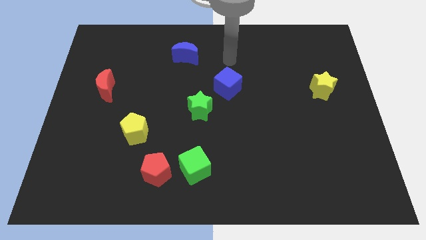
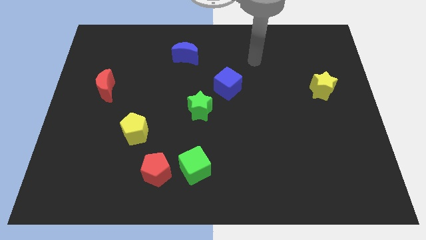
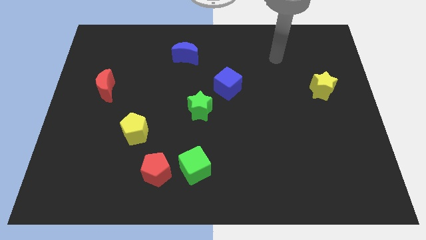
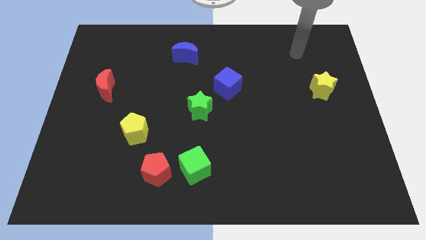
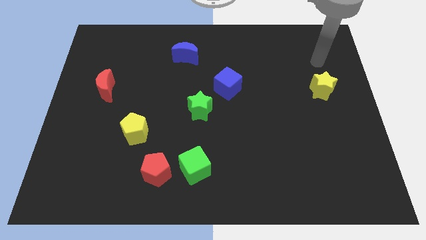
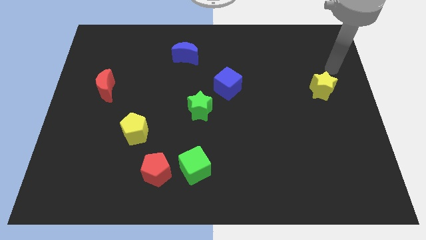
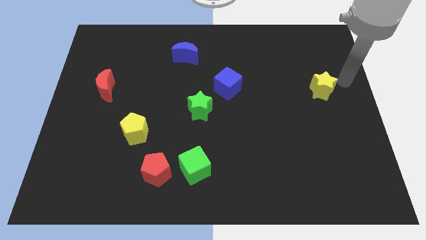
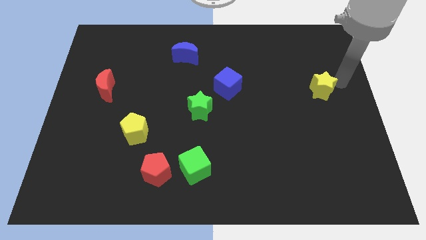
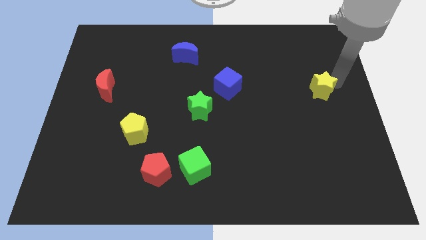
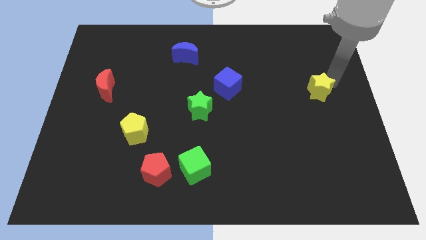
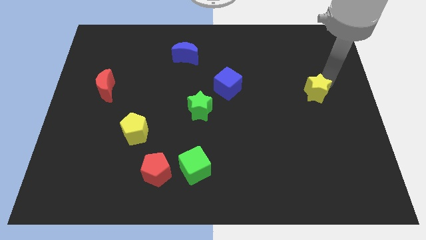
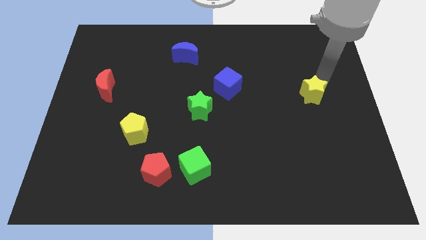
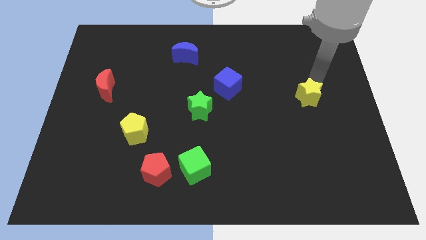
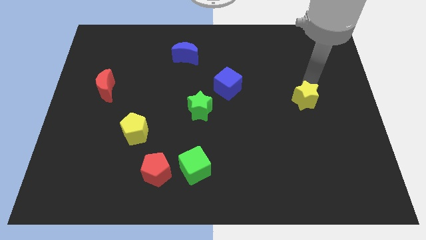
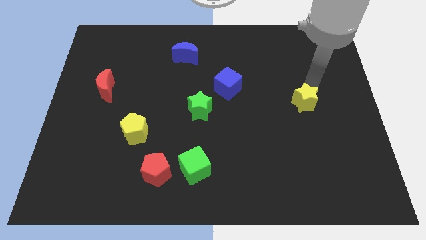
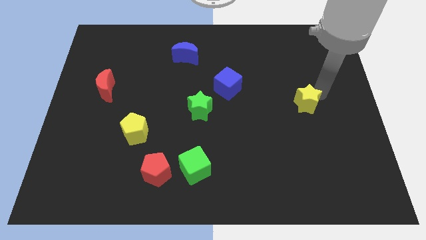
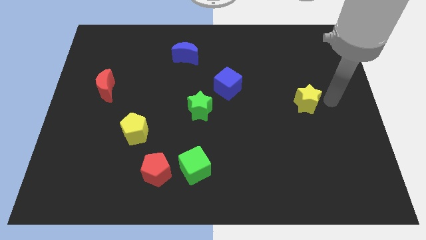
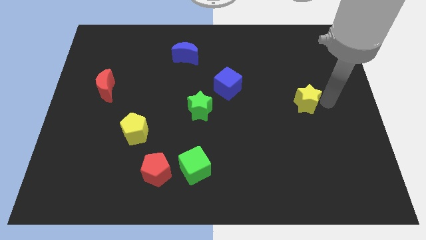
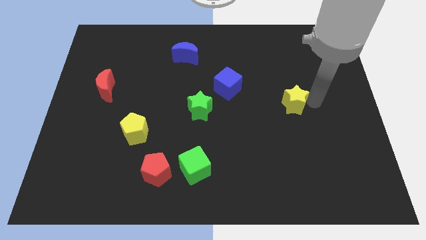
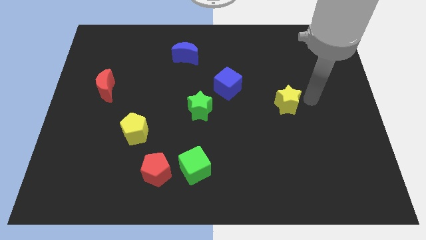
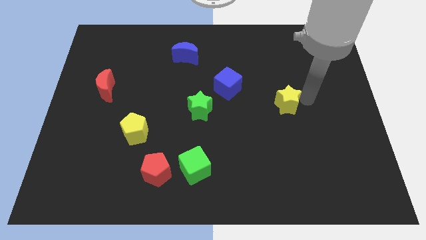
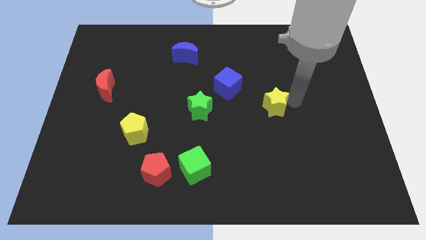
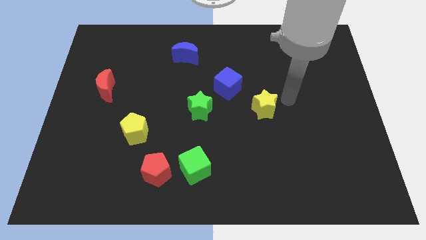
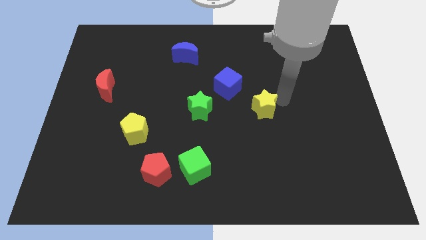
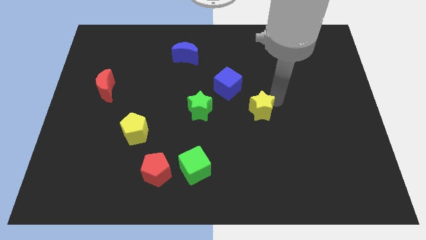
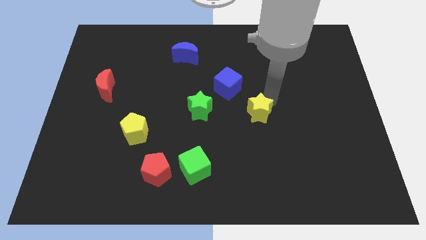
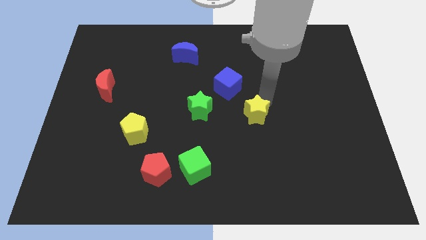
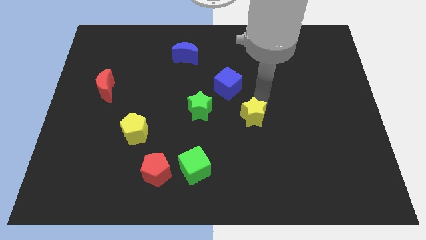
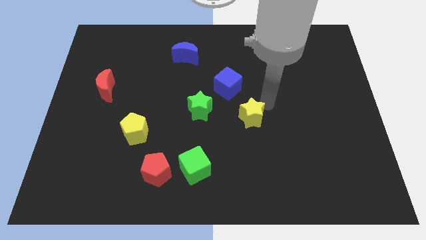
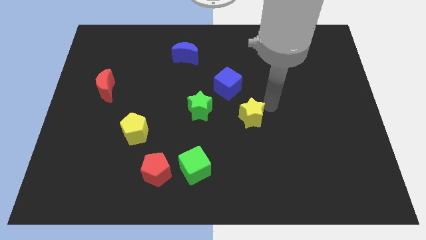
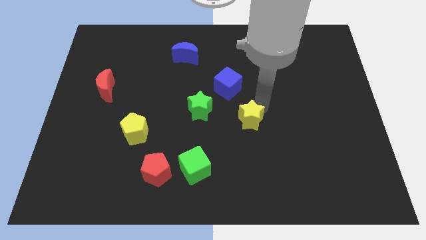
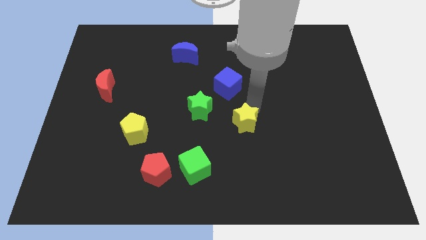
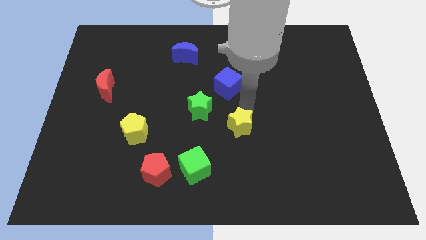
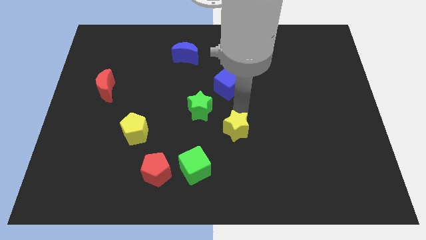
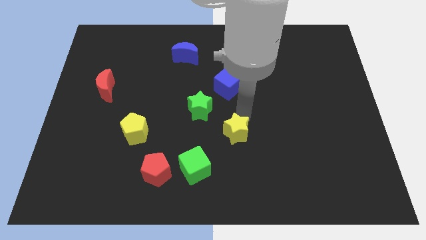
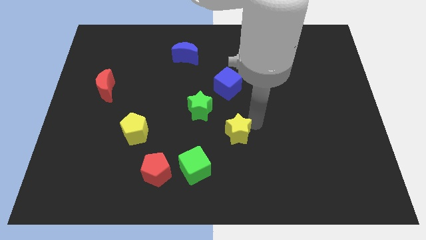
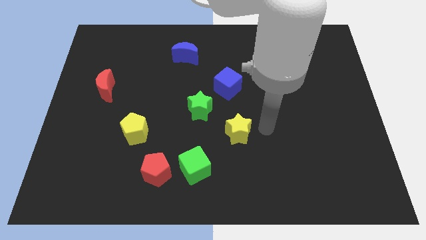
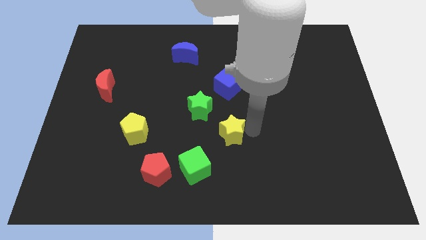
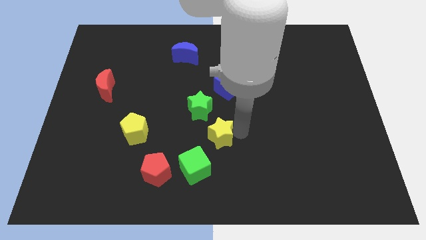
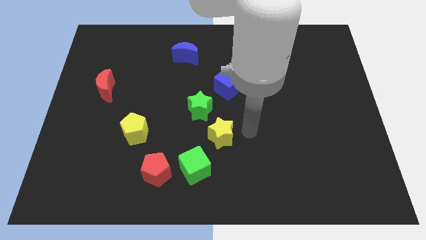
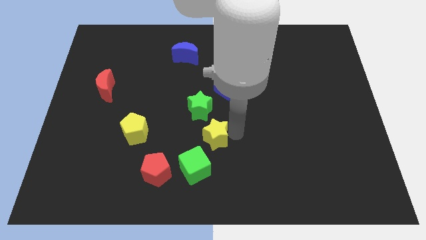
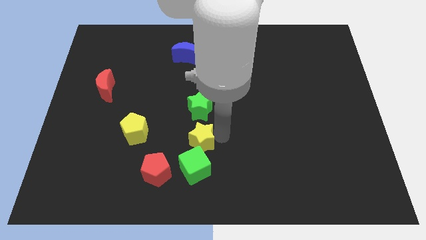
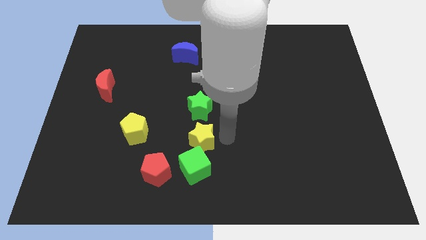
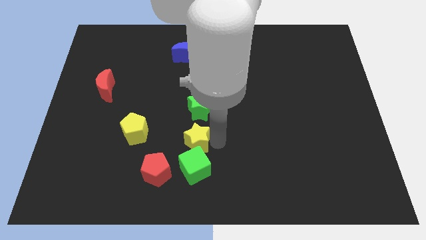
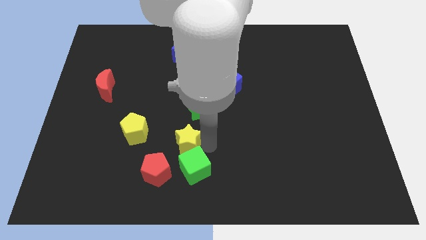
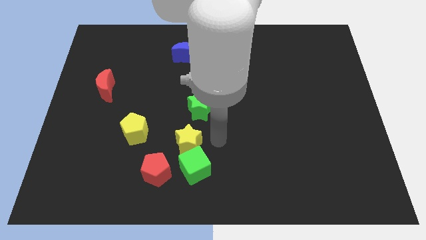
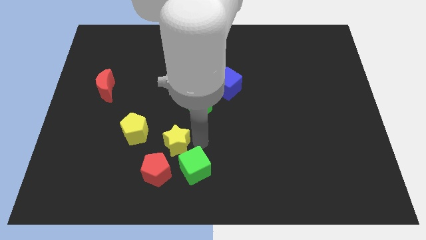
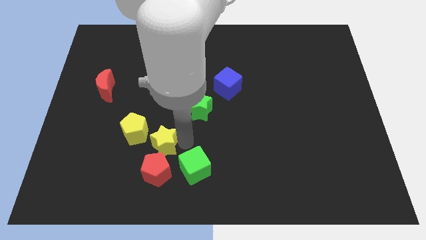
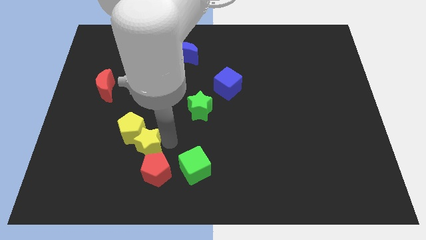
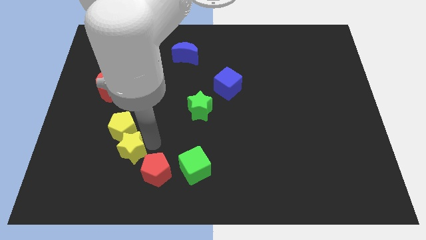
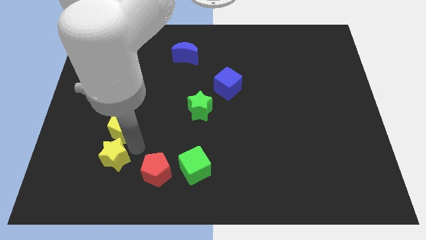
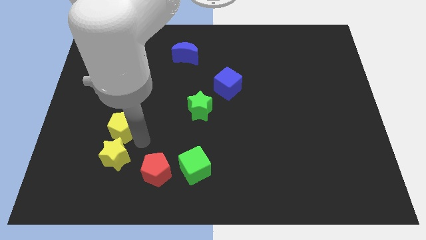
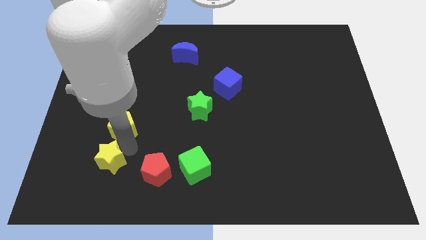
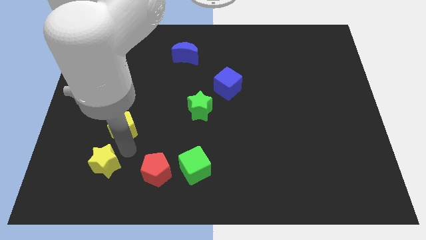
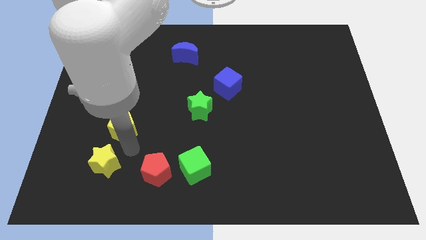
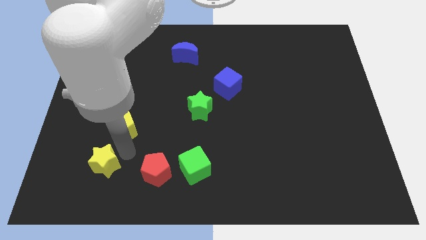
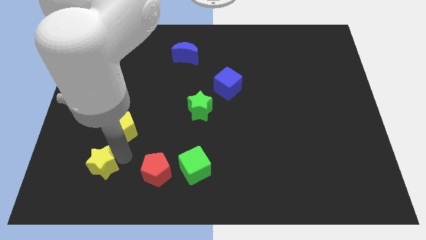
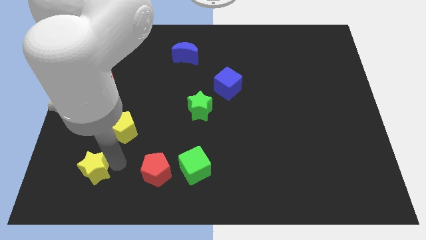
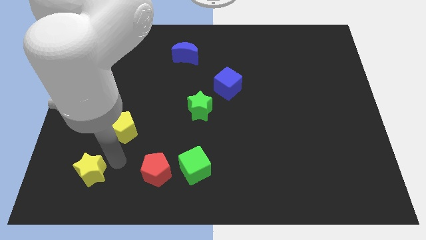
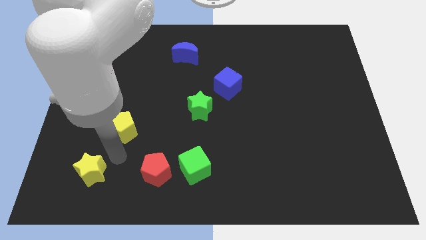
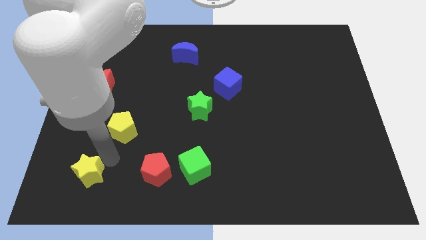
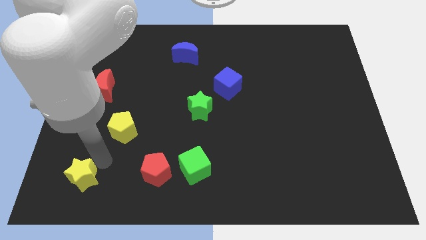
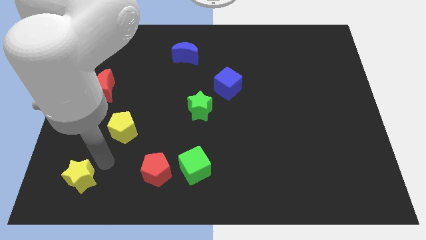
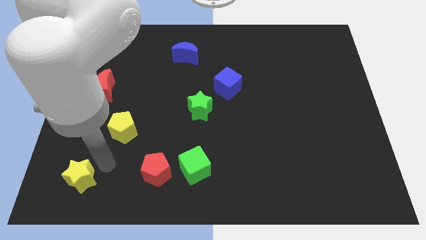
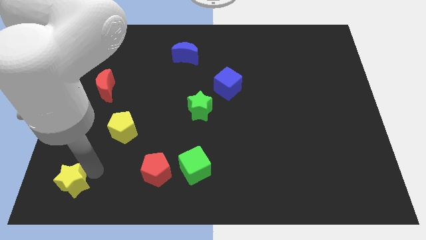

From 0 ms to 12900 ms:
put the yellow star to the bottom left corner
